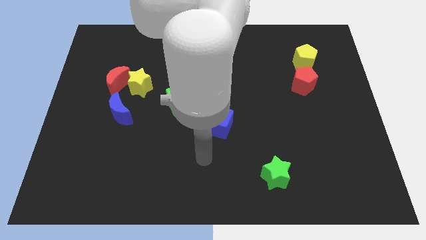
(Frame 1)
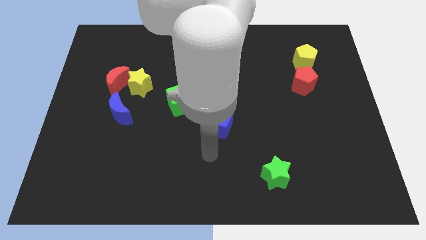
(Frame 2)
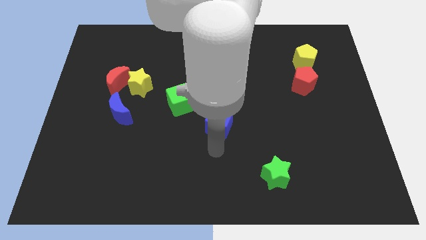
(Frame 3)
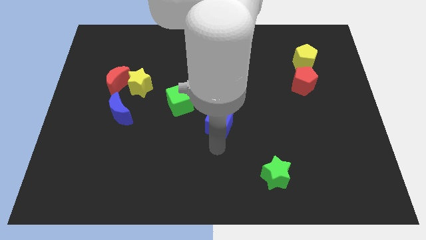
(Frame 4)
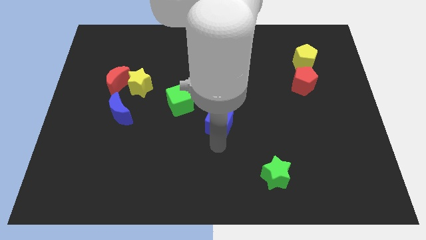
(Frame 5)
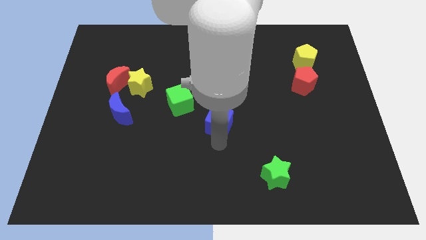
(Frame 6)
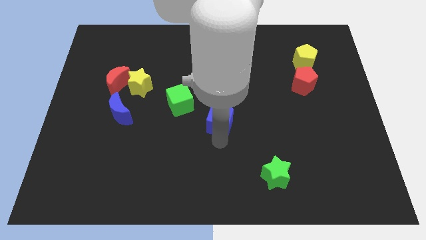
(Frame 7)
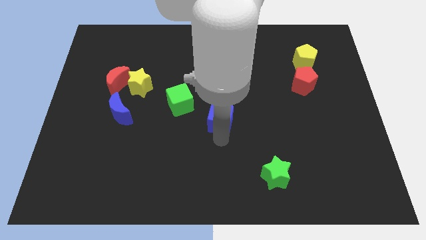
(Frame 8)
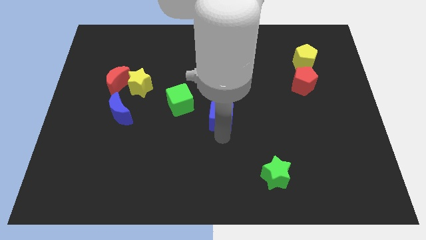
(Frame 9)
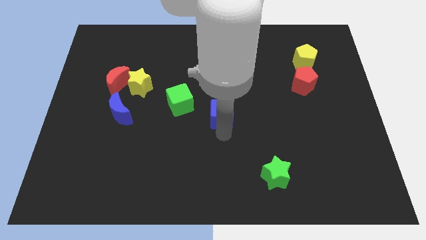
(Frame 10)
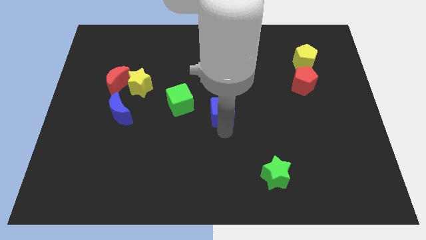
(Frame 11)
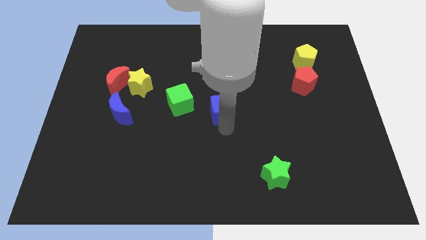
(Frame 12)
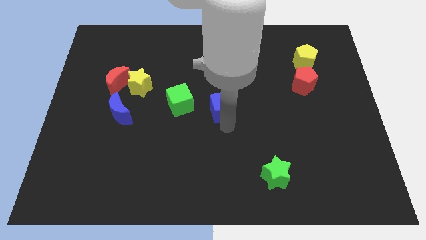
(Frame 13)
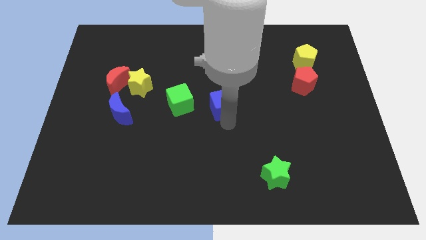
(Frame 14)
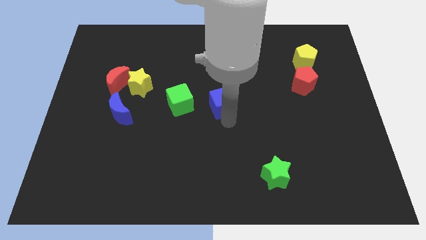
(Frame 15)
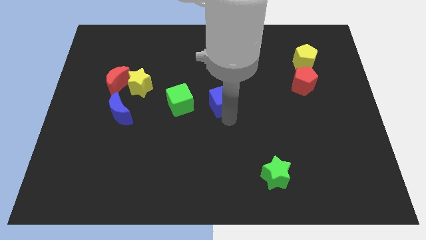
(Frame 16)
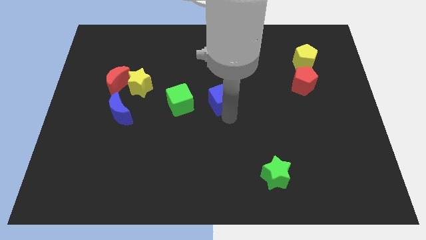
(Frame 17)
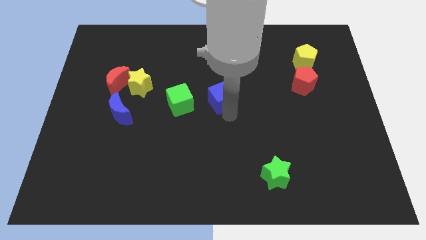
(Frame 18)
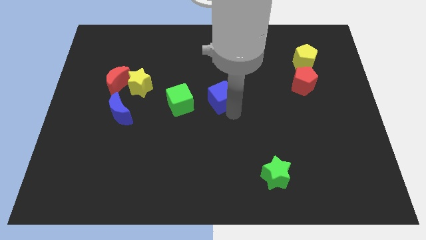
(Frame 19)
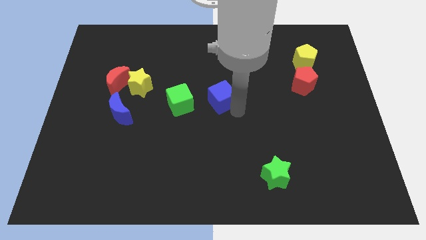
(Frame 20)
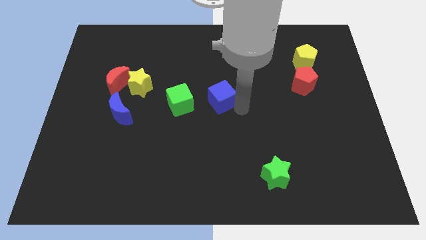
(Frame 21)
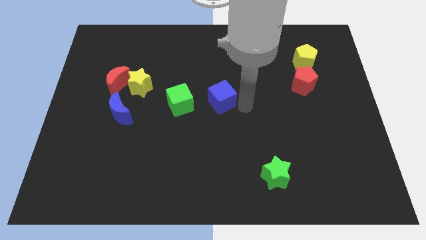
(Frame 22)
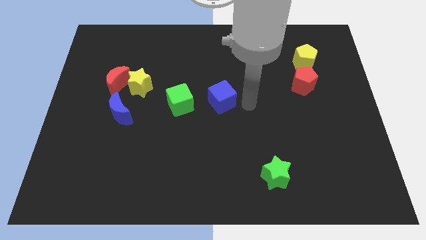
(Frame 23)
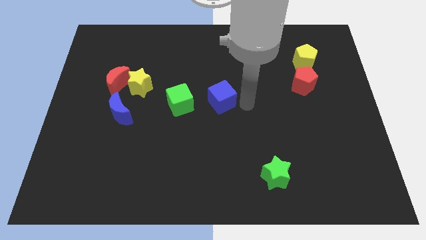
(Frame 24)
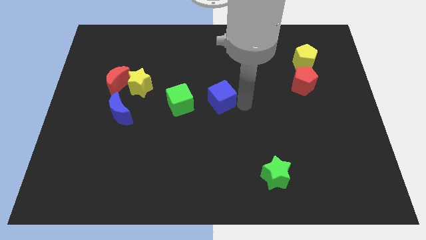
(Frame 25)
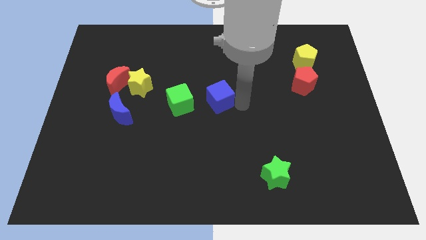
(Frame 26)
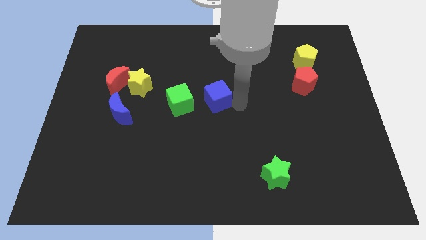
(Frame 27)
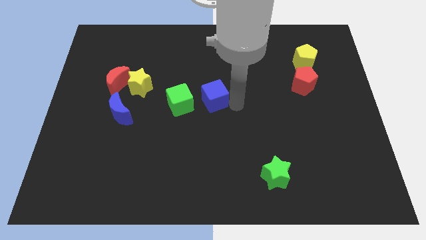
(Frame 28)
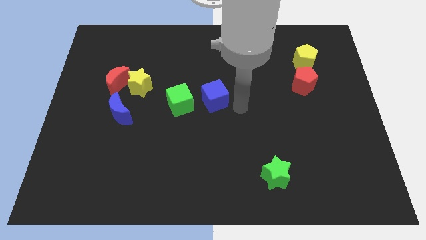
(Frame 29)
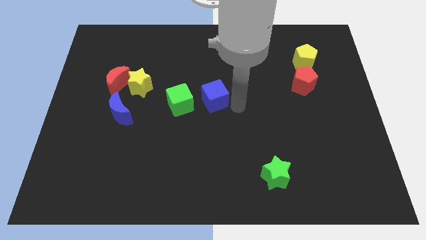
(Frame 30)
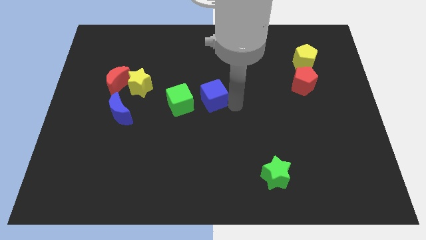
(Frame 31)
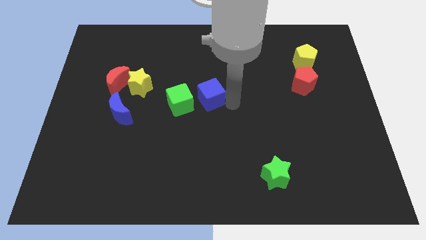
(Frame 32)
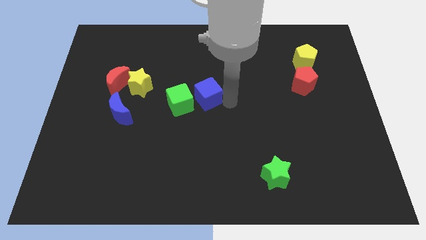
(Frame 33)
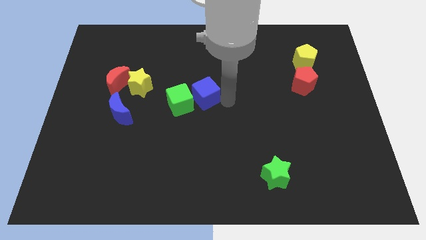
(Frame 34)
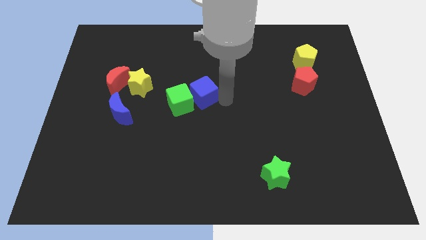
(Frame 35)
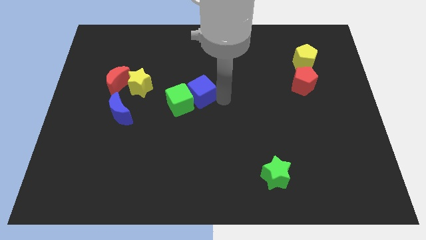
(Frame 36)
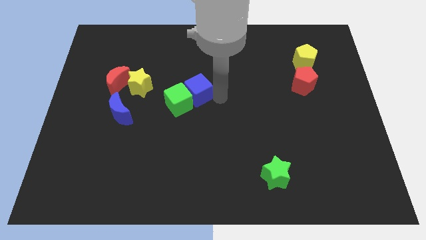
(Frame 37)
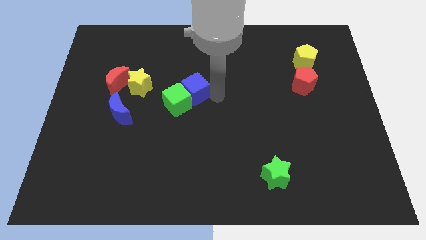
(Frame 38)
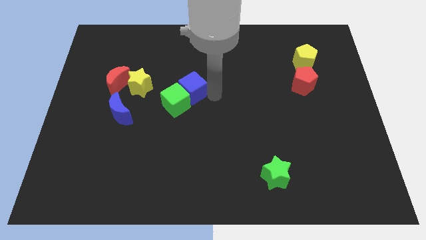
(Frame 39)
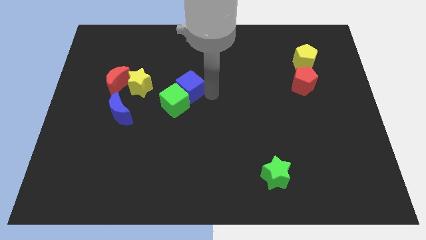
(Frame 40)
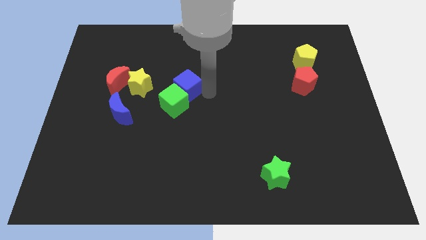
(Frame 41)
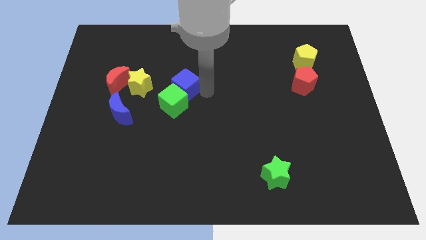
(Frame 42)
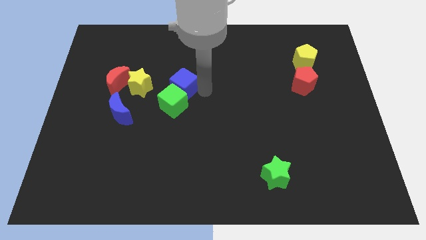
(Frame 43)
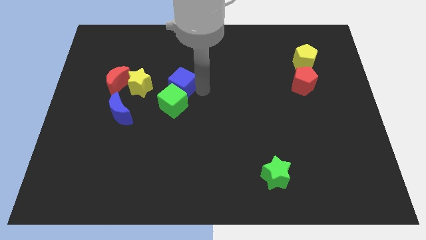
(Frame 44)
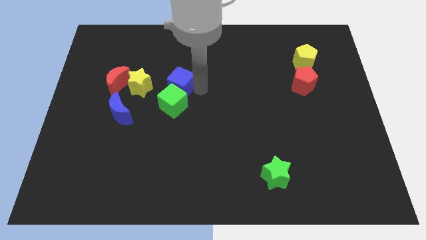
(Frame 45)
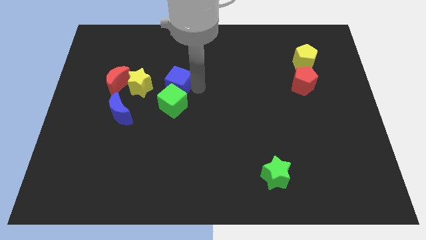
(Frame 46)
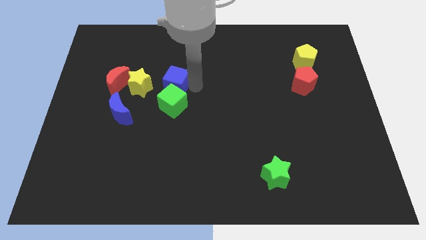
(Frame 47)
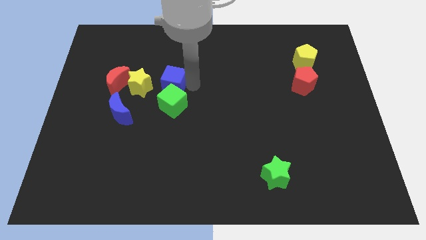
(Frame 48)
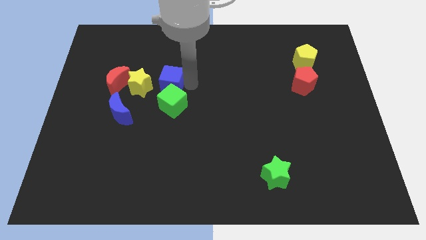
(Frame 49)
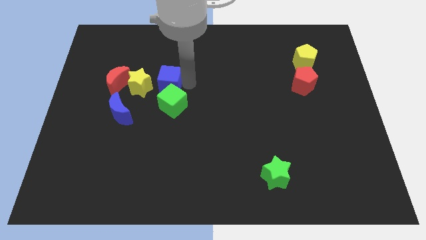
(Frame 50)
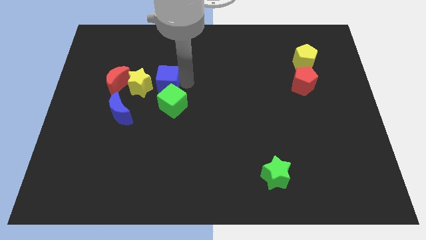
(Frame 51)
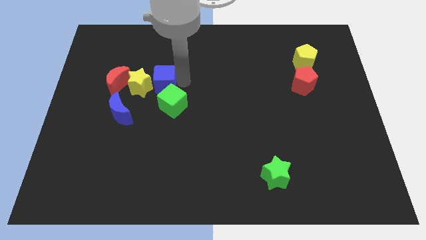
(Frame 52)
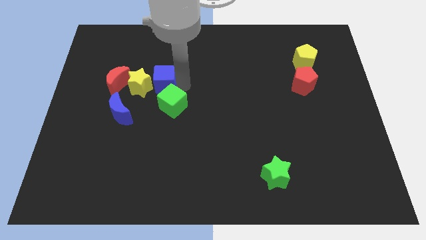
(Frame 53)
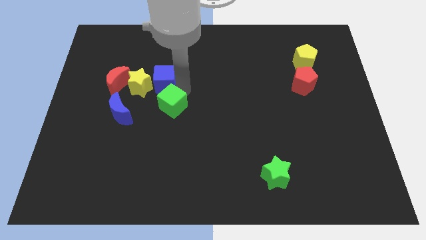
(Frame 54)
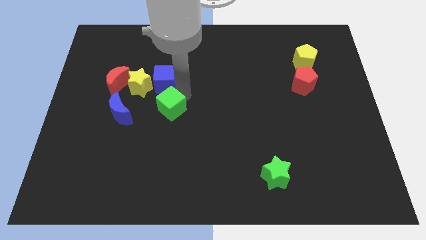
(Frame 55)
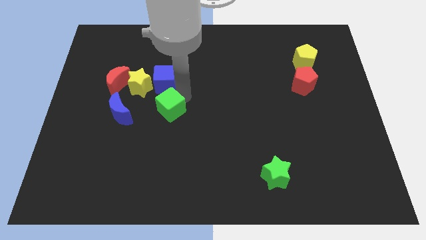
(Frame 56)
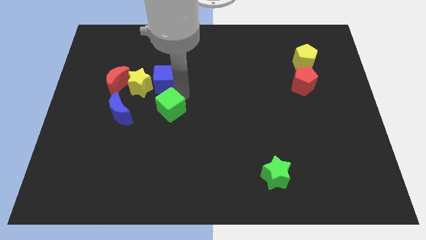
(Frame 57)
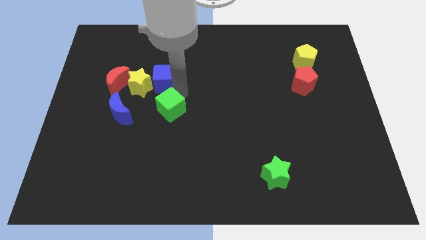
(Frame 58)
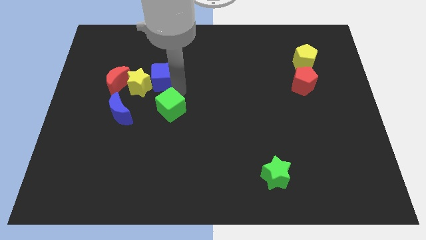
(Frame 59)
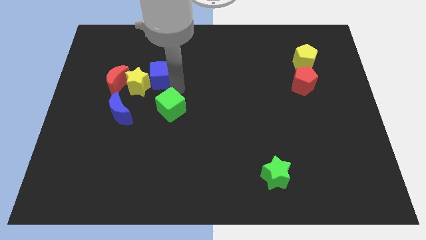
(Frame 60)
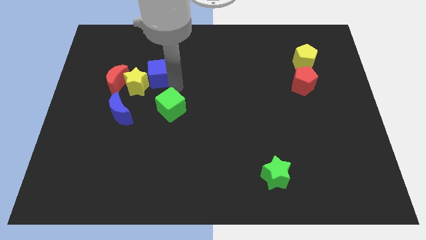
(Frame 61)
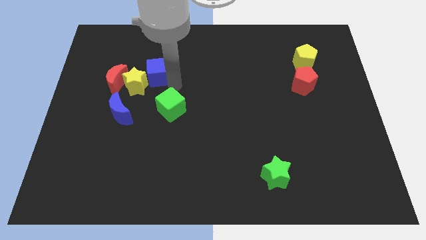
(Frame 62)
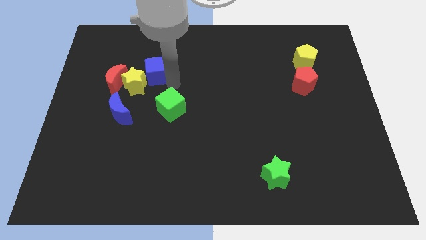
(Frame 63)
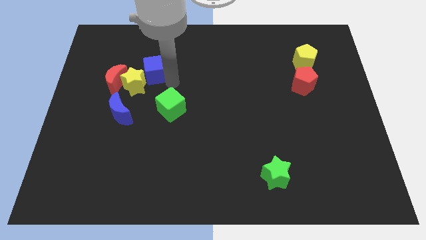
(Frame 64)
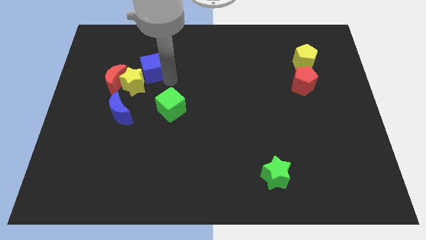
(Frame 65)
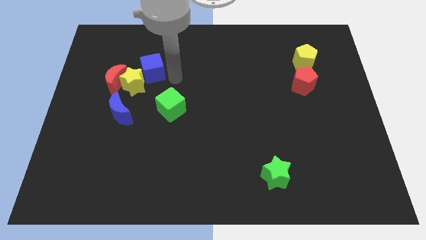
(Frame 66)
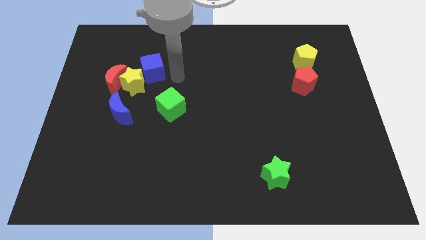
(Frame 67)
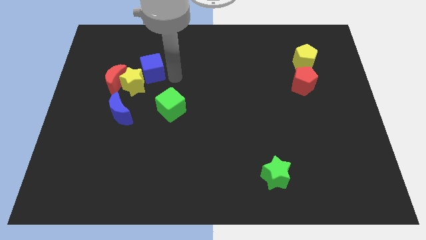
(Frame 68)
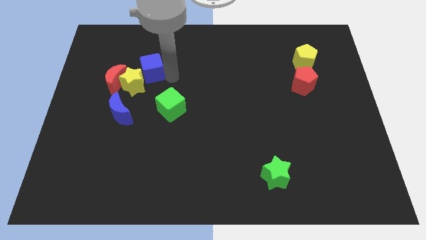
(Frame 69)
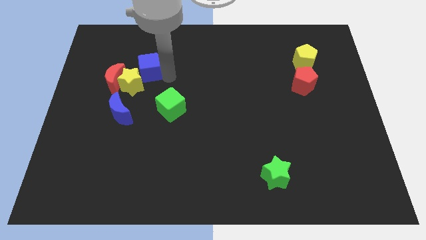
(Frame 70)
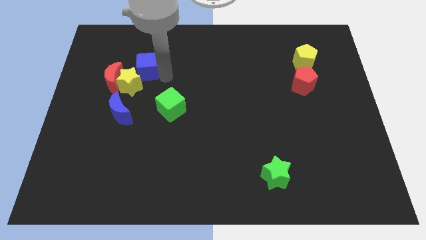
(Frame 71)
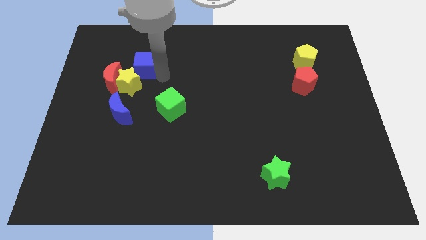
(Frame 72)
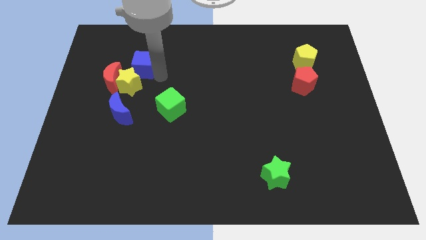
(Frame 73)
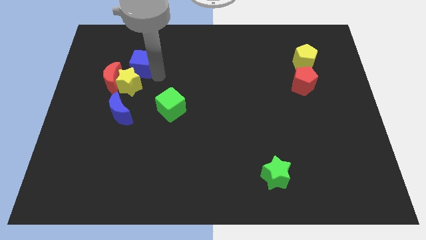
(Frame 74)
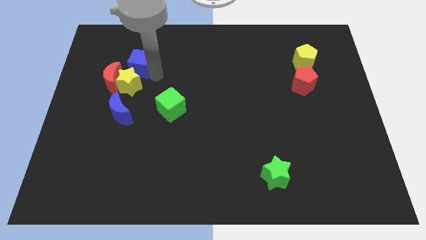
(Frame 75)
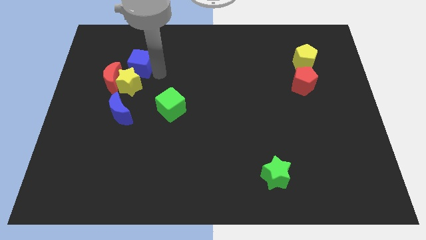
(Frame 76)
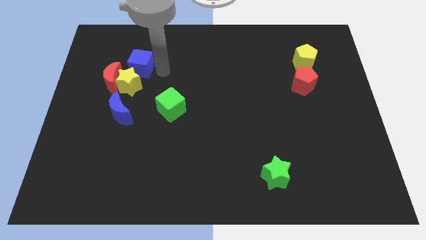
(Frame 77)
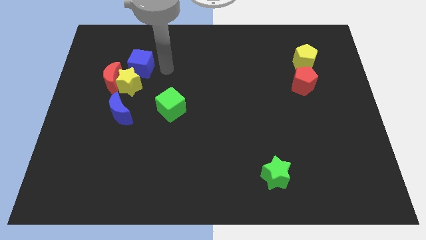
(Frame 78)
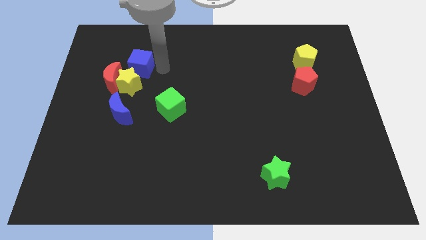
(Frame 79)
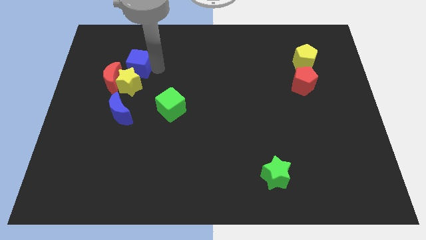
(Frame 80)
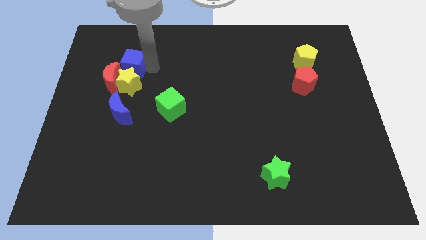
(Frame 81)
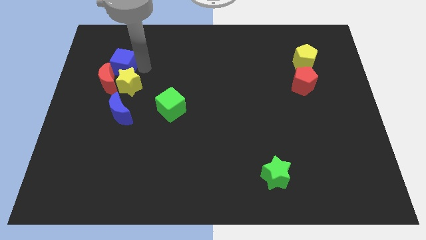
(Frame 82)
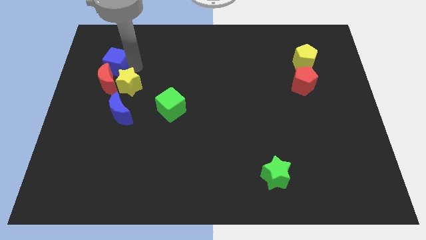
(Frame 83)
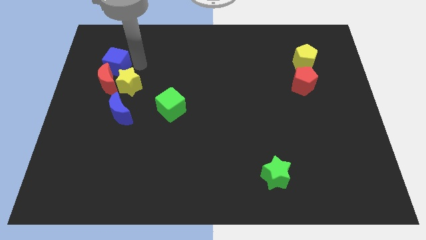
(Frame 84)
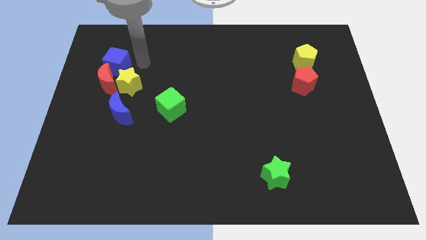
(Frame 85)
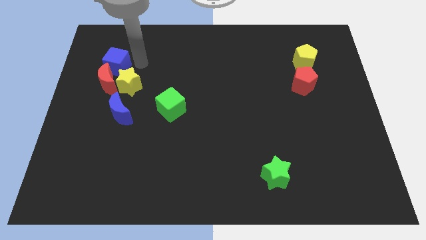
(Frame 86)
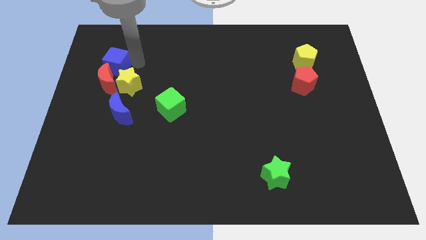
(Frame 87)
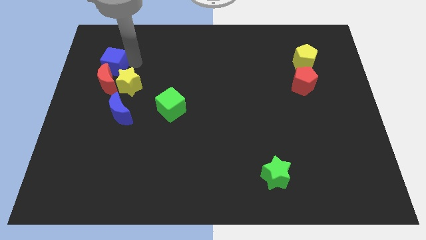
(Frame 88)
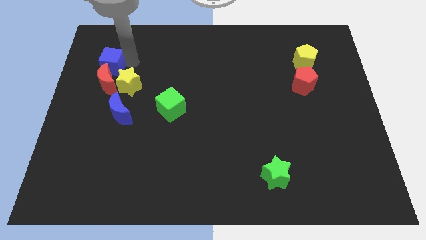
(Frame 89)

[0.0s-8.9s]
push the blue cube to the top left side of the red moon
